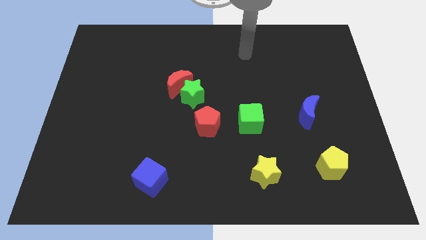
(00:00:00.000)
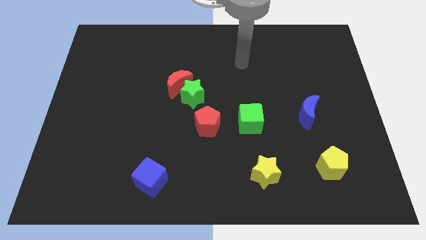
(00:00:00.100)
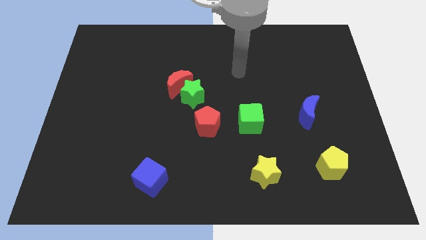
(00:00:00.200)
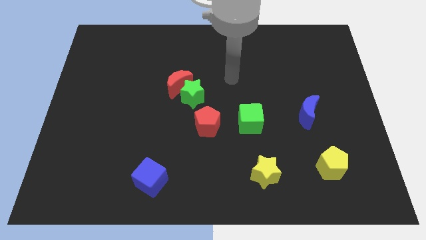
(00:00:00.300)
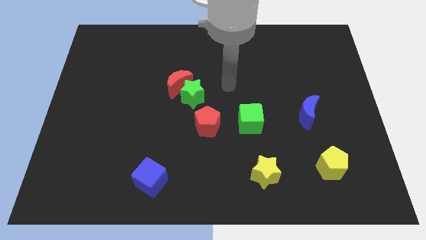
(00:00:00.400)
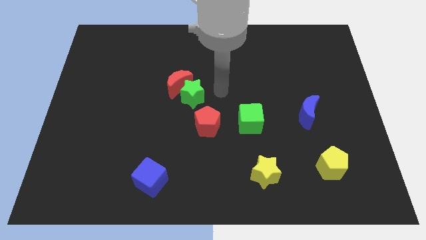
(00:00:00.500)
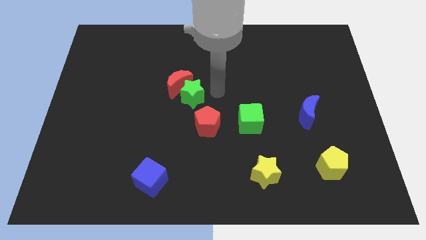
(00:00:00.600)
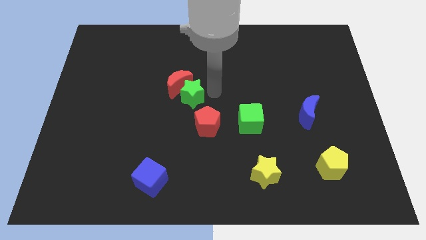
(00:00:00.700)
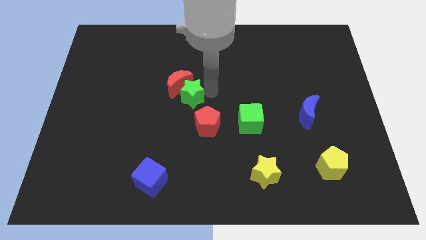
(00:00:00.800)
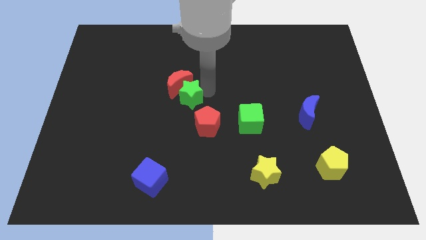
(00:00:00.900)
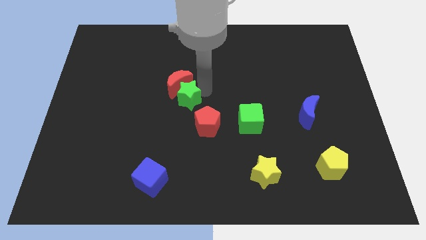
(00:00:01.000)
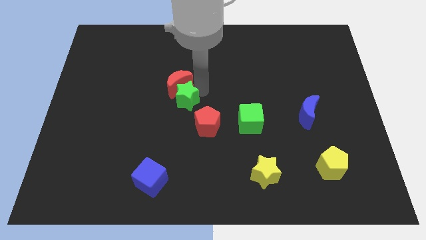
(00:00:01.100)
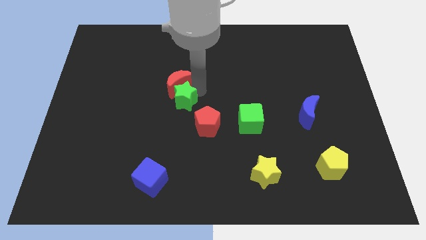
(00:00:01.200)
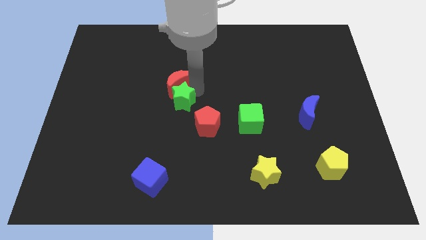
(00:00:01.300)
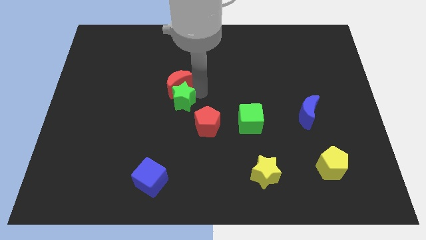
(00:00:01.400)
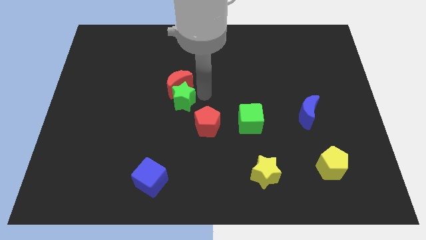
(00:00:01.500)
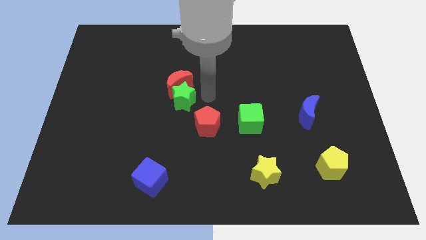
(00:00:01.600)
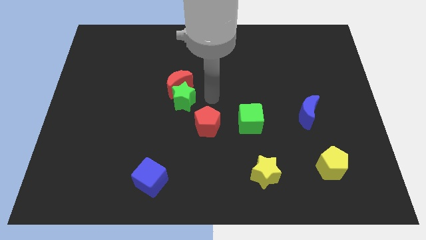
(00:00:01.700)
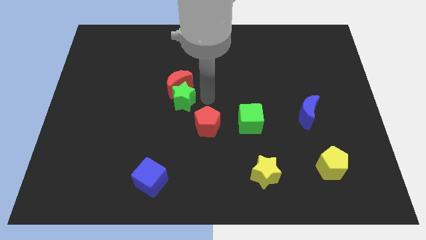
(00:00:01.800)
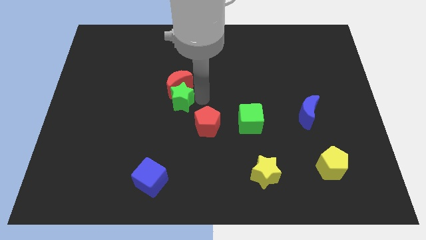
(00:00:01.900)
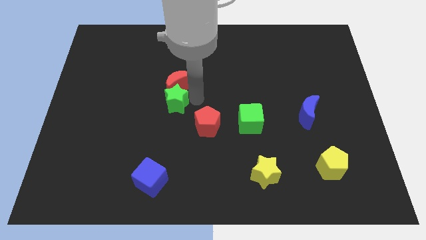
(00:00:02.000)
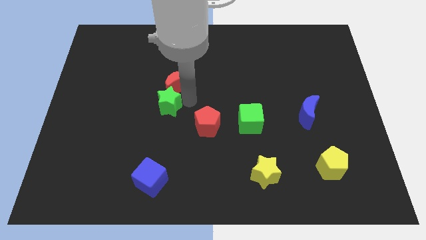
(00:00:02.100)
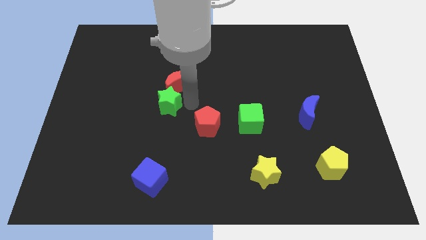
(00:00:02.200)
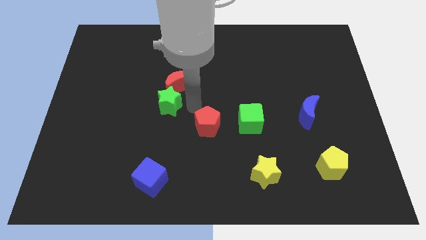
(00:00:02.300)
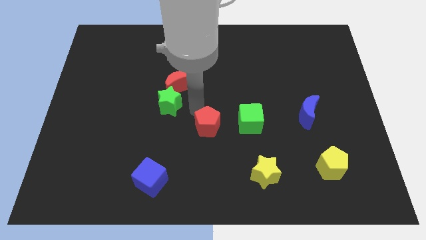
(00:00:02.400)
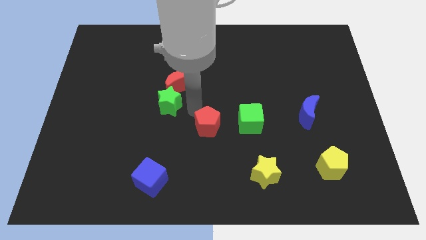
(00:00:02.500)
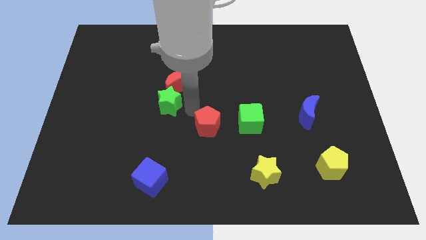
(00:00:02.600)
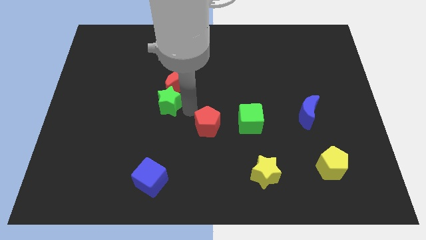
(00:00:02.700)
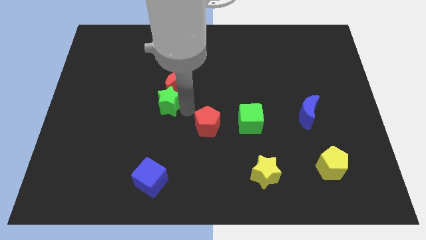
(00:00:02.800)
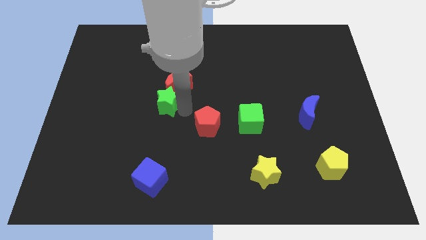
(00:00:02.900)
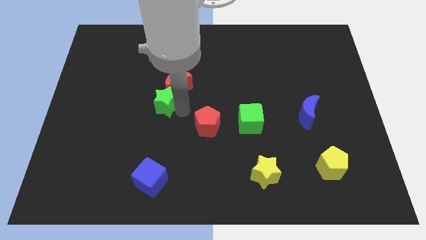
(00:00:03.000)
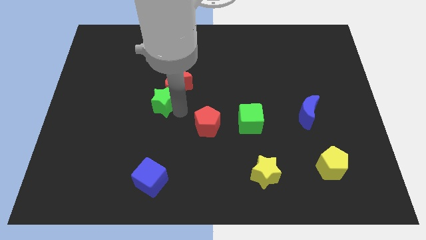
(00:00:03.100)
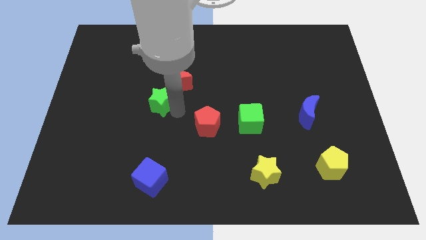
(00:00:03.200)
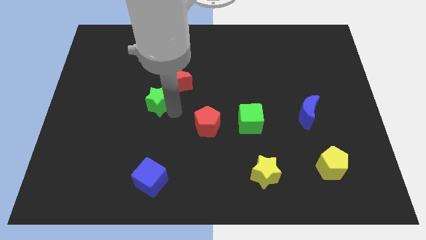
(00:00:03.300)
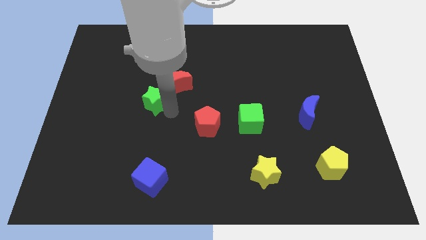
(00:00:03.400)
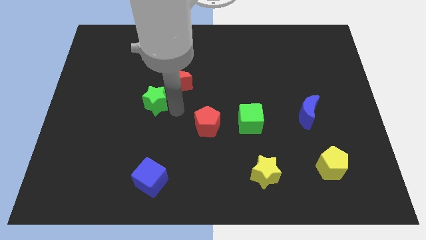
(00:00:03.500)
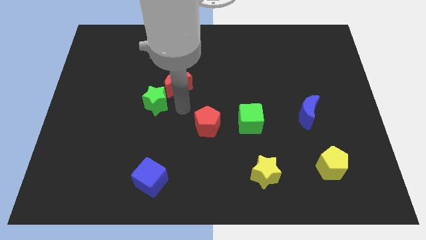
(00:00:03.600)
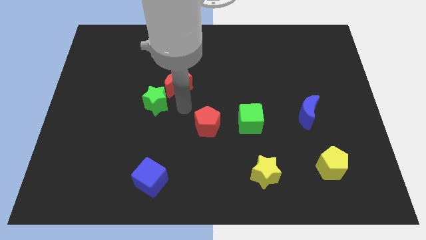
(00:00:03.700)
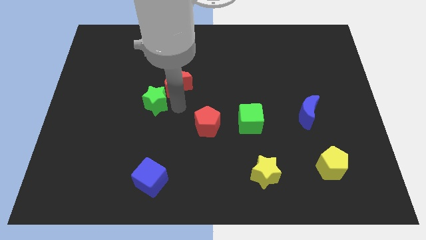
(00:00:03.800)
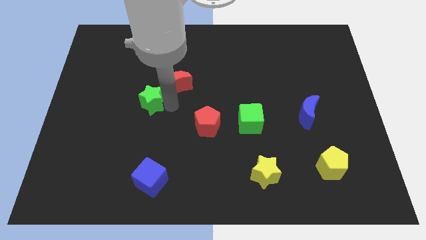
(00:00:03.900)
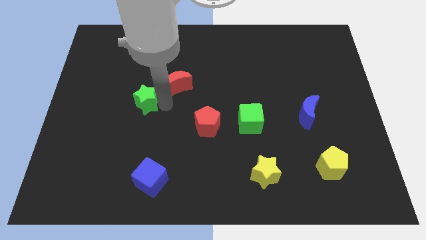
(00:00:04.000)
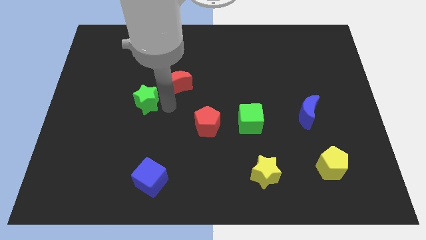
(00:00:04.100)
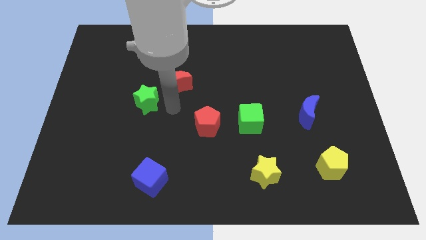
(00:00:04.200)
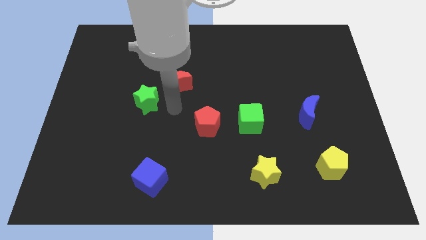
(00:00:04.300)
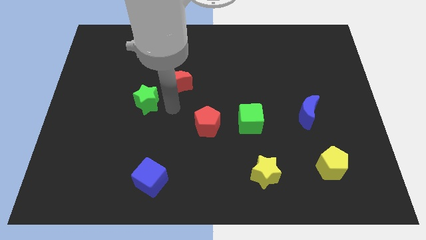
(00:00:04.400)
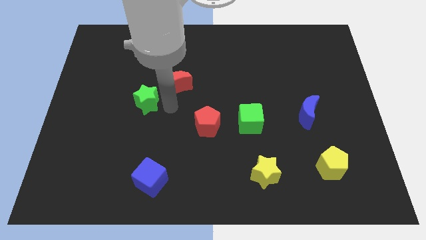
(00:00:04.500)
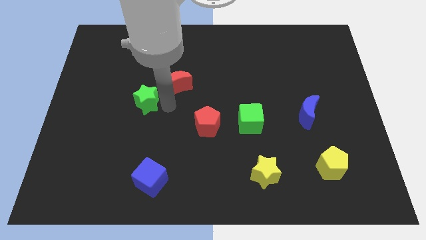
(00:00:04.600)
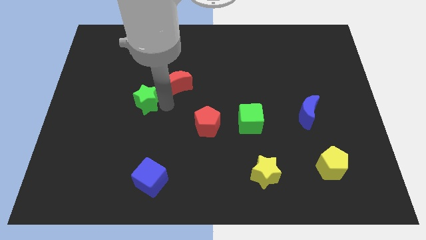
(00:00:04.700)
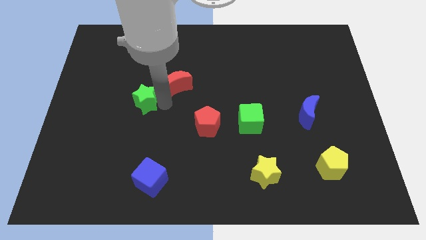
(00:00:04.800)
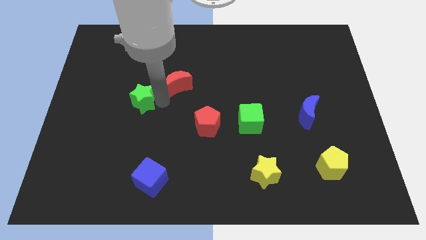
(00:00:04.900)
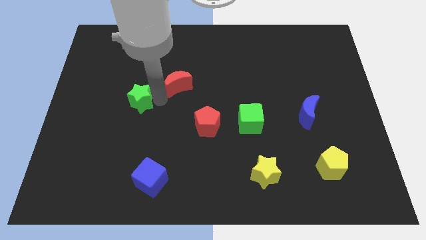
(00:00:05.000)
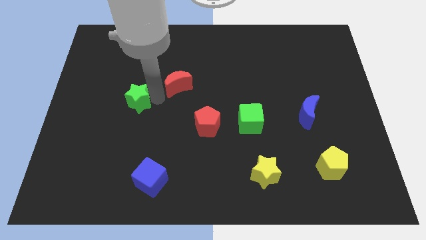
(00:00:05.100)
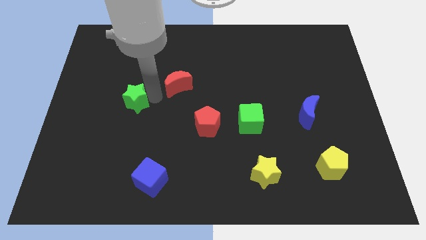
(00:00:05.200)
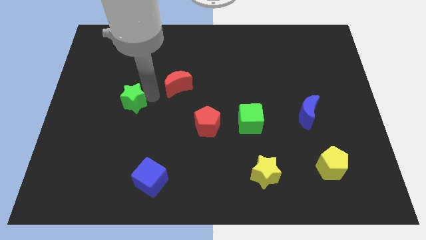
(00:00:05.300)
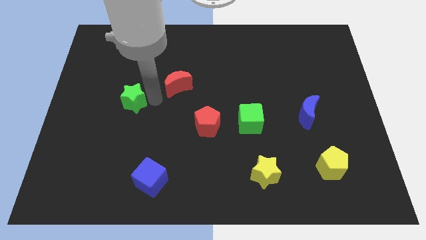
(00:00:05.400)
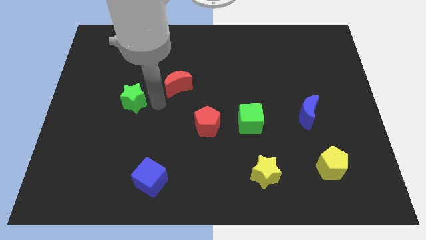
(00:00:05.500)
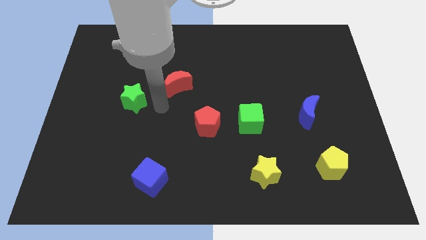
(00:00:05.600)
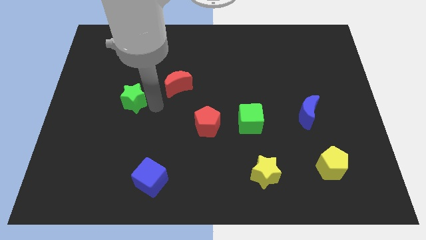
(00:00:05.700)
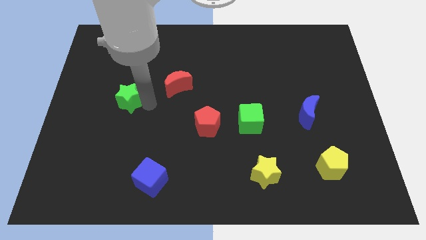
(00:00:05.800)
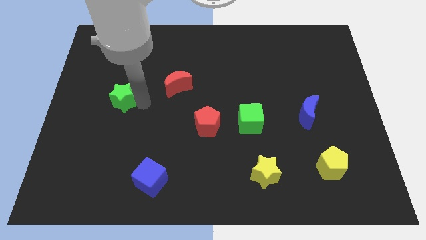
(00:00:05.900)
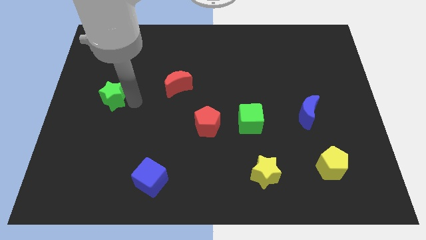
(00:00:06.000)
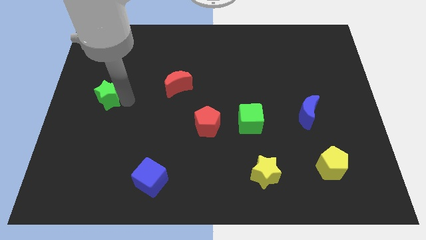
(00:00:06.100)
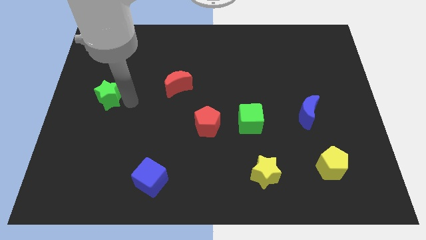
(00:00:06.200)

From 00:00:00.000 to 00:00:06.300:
put the green star to the left side of the board

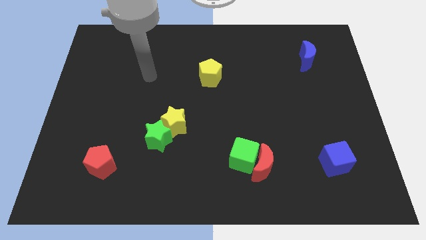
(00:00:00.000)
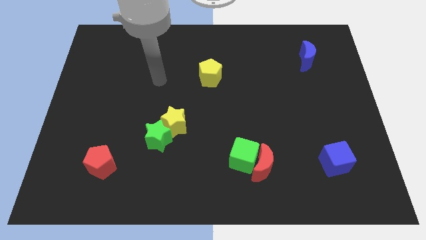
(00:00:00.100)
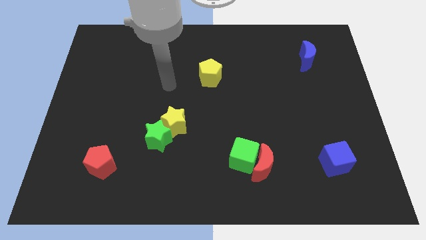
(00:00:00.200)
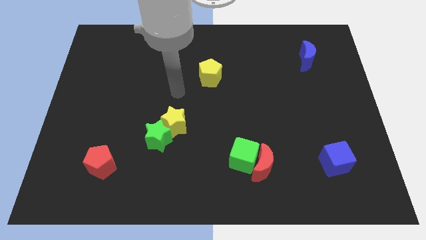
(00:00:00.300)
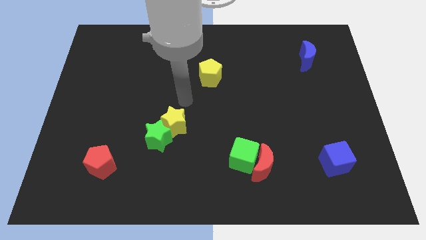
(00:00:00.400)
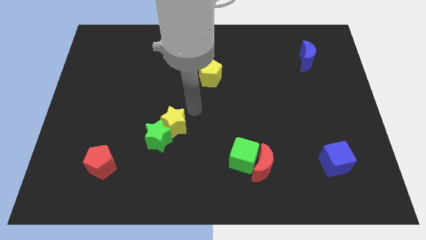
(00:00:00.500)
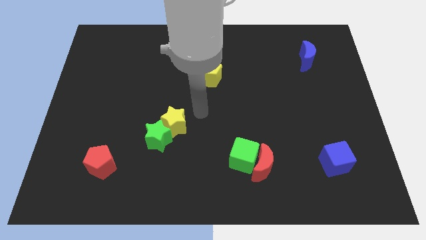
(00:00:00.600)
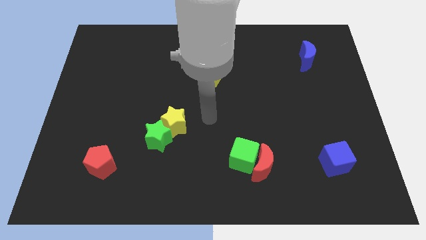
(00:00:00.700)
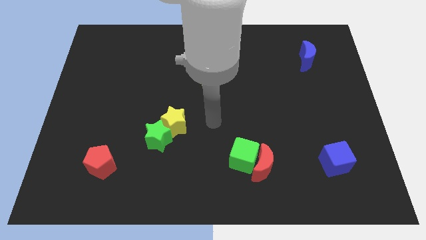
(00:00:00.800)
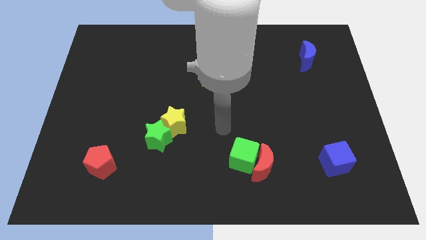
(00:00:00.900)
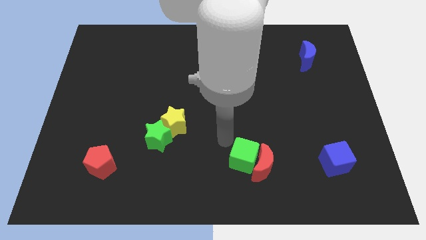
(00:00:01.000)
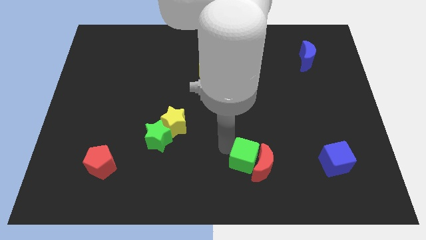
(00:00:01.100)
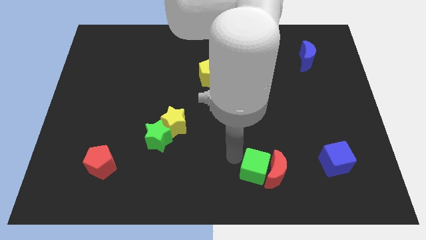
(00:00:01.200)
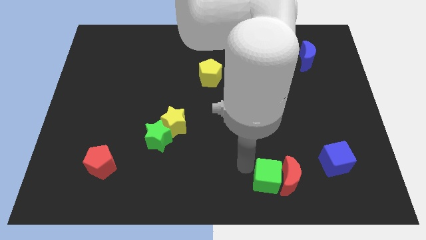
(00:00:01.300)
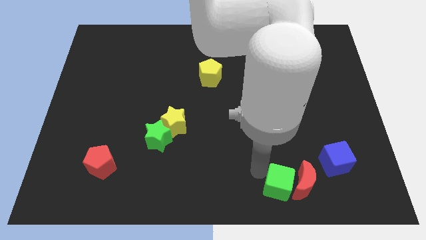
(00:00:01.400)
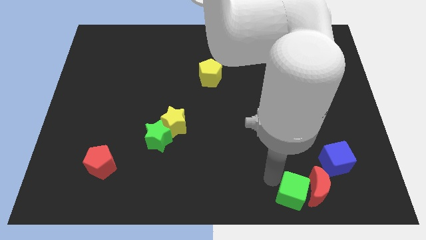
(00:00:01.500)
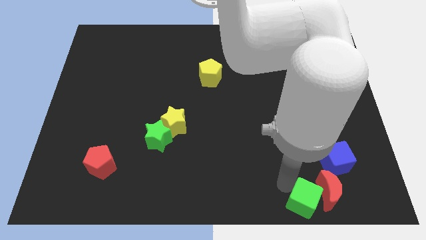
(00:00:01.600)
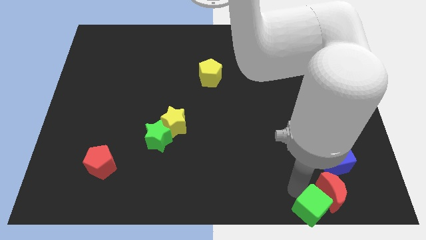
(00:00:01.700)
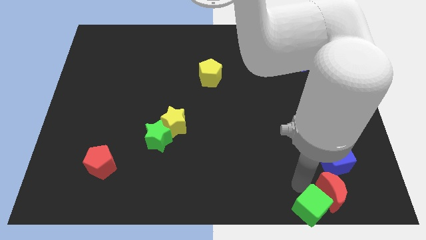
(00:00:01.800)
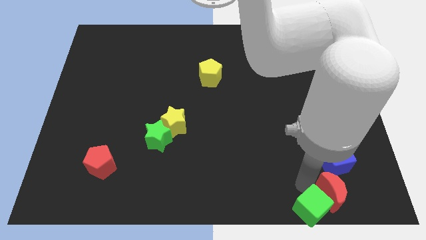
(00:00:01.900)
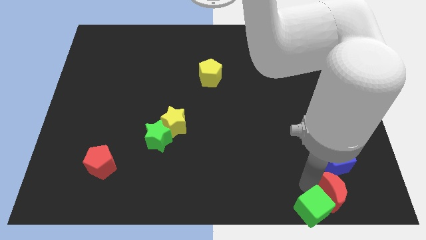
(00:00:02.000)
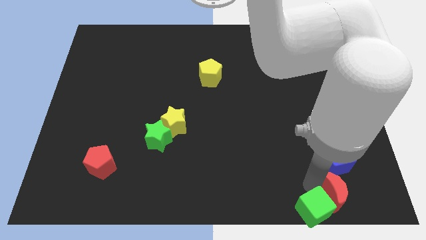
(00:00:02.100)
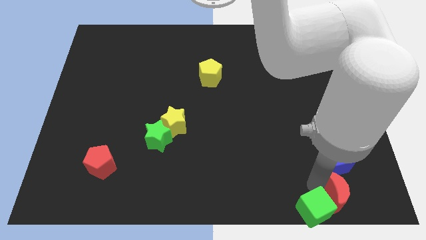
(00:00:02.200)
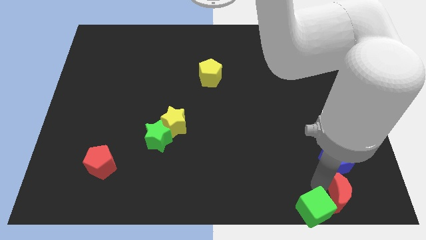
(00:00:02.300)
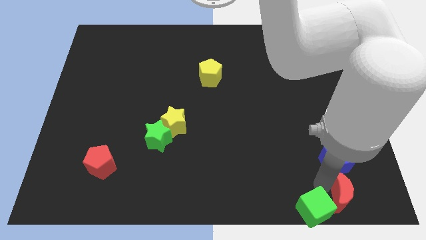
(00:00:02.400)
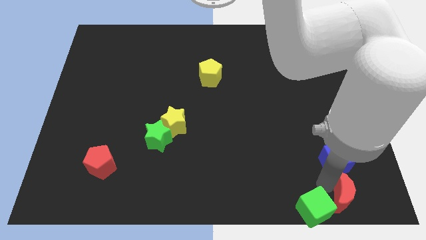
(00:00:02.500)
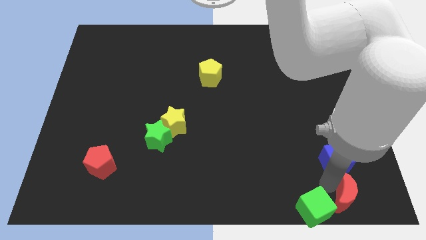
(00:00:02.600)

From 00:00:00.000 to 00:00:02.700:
put the red moon to the bottom right
